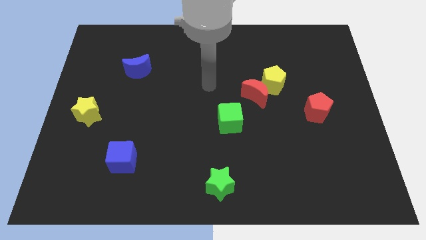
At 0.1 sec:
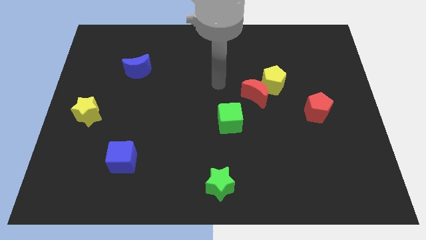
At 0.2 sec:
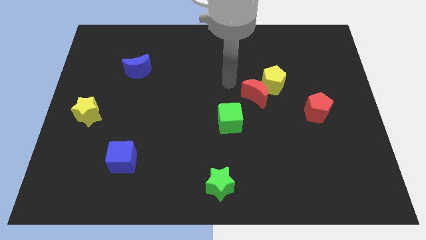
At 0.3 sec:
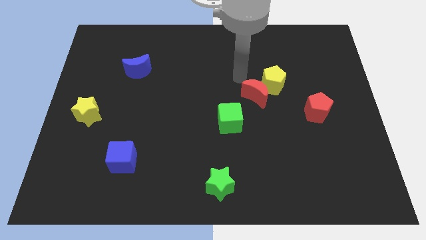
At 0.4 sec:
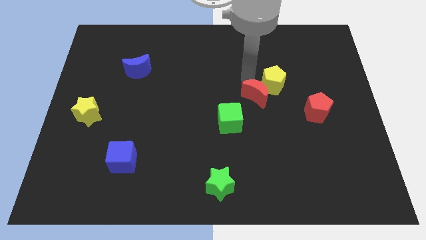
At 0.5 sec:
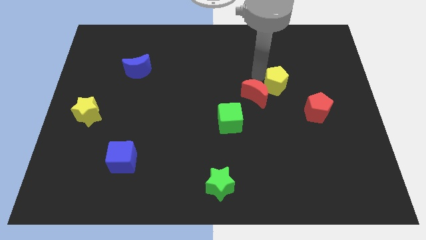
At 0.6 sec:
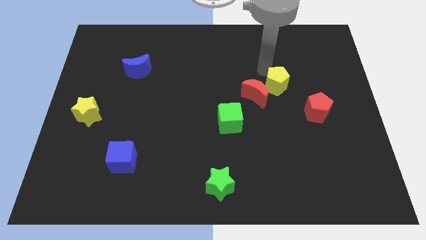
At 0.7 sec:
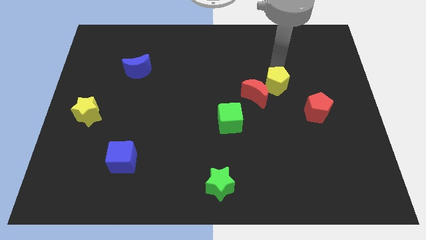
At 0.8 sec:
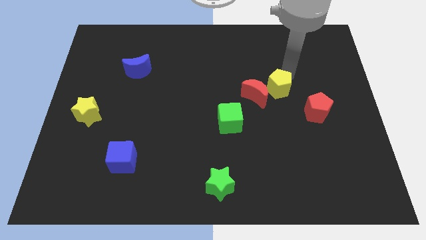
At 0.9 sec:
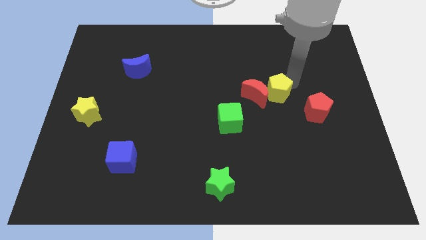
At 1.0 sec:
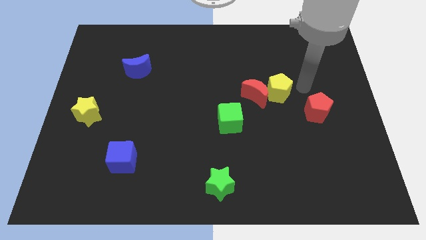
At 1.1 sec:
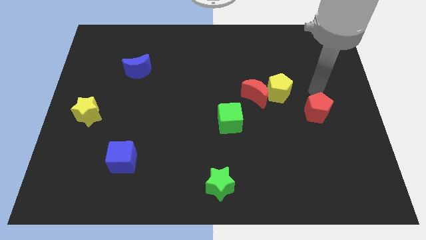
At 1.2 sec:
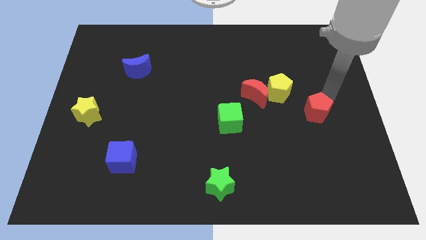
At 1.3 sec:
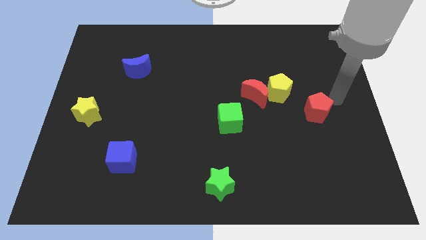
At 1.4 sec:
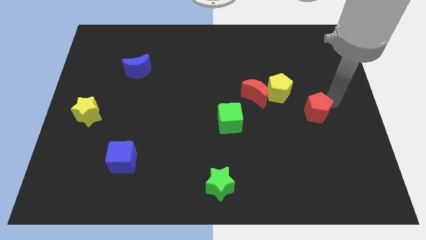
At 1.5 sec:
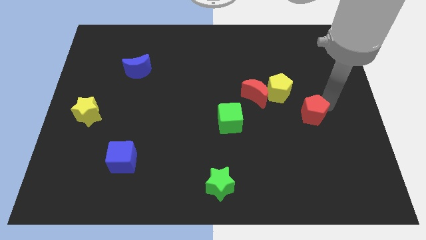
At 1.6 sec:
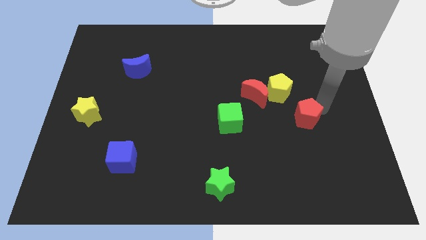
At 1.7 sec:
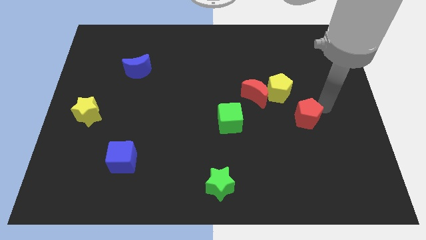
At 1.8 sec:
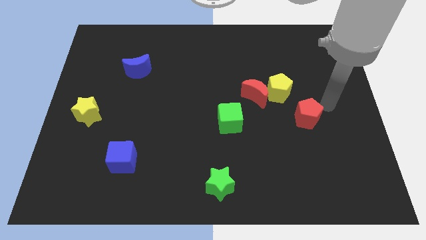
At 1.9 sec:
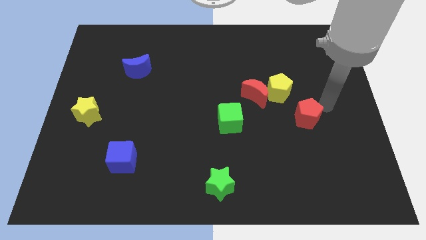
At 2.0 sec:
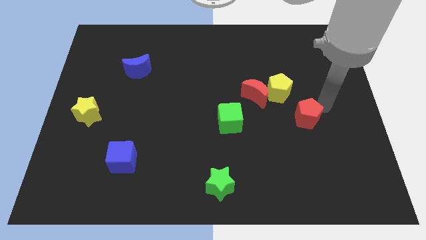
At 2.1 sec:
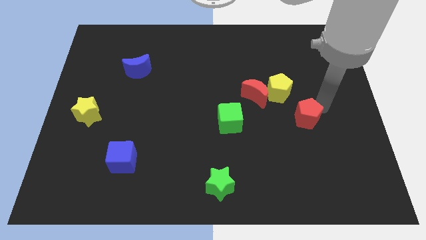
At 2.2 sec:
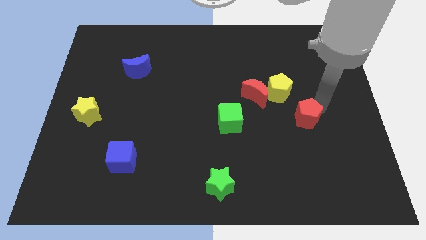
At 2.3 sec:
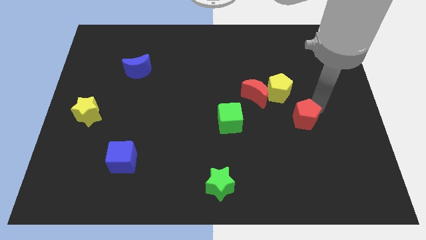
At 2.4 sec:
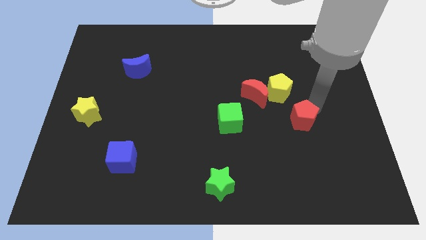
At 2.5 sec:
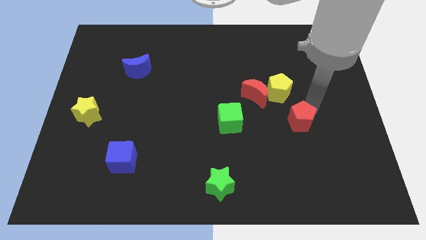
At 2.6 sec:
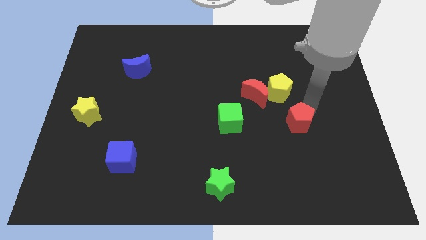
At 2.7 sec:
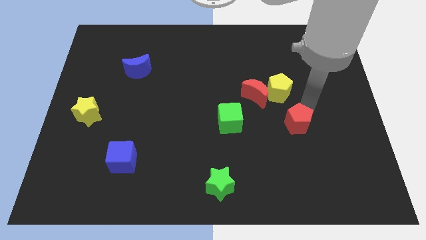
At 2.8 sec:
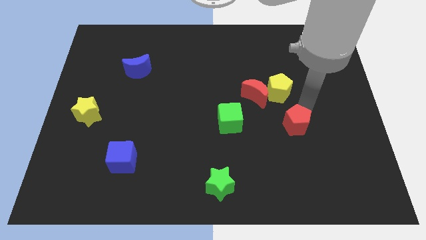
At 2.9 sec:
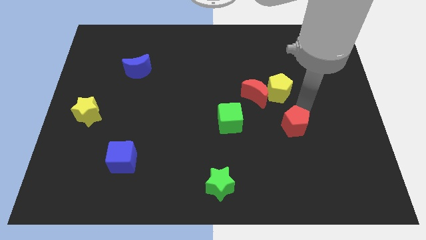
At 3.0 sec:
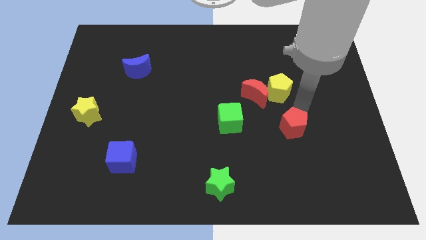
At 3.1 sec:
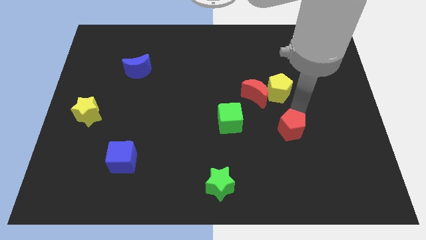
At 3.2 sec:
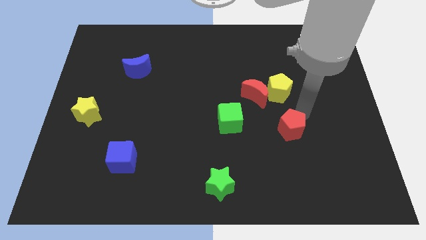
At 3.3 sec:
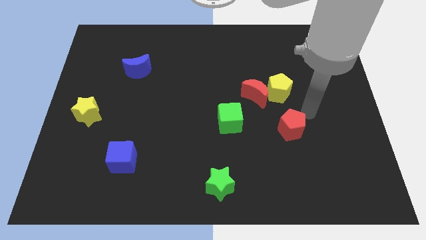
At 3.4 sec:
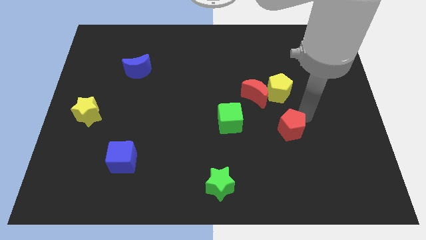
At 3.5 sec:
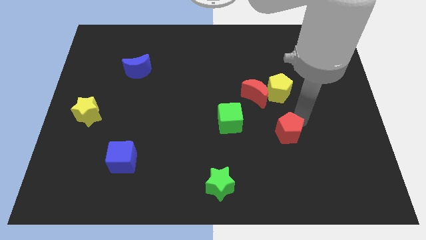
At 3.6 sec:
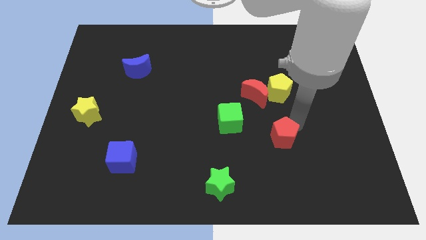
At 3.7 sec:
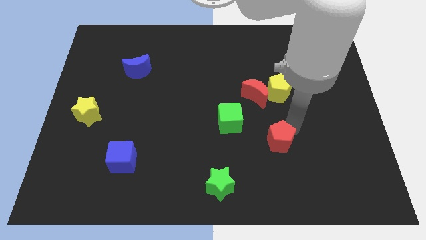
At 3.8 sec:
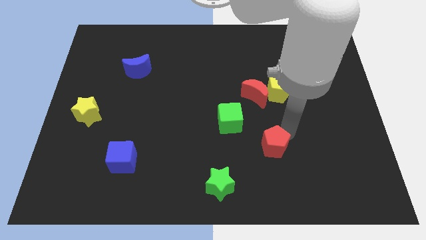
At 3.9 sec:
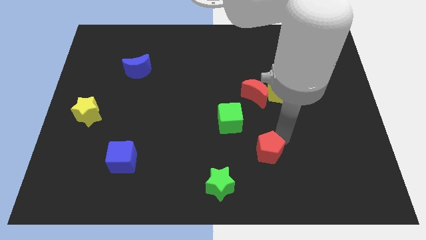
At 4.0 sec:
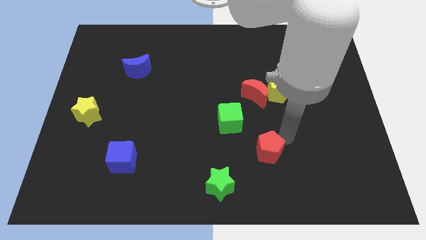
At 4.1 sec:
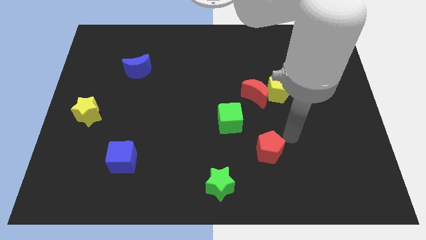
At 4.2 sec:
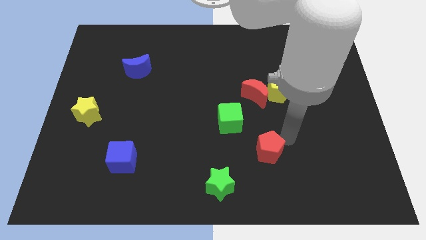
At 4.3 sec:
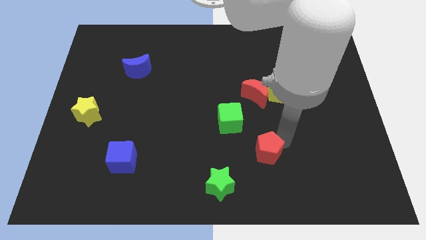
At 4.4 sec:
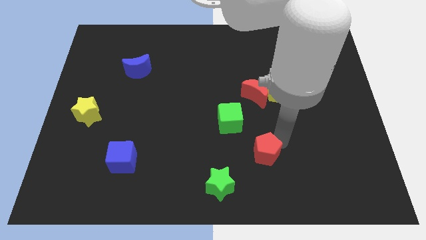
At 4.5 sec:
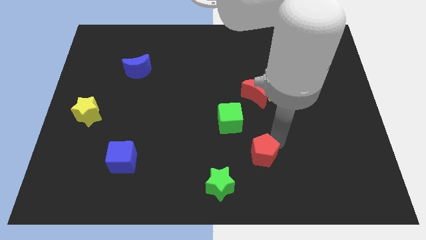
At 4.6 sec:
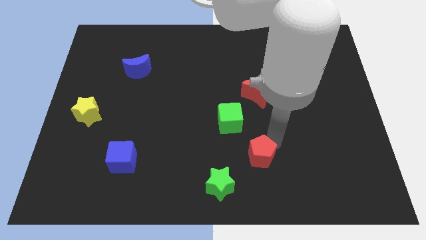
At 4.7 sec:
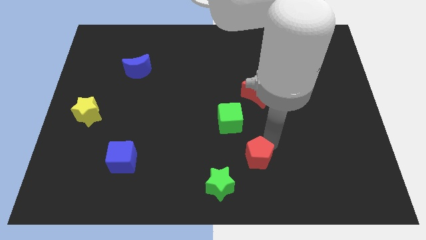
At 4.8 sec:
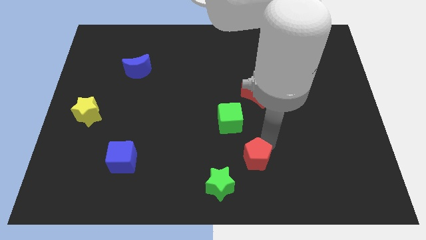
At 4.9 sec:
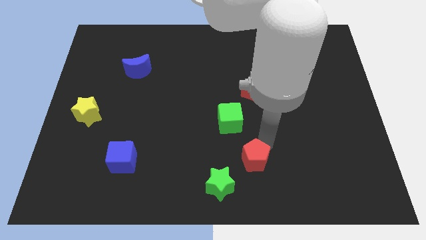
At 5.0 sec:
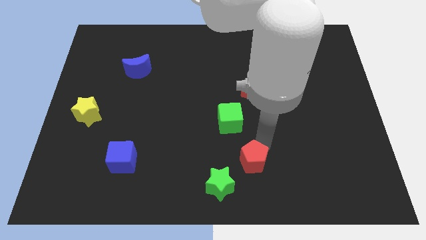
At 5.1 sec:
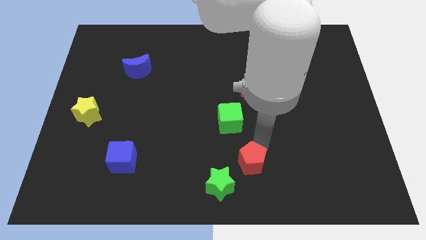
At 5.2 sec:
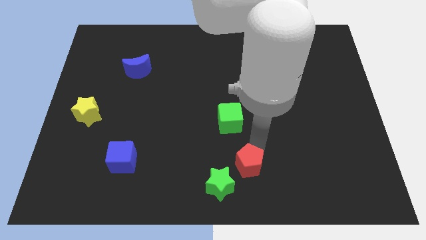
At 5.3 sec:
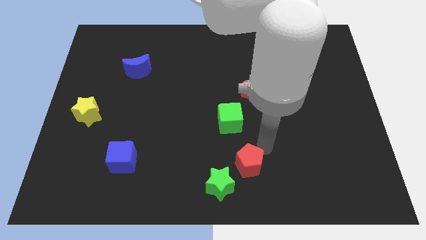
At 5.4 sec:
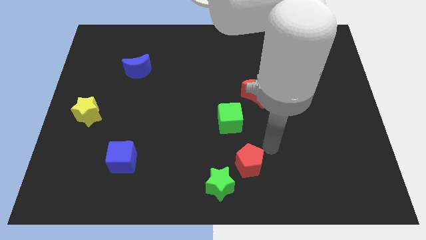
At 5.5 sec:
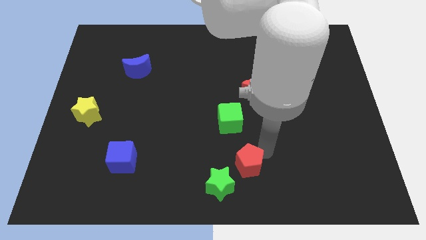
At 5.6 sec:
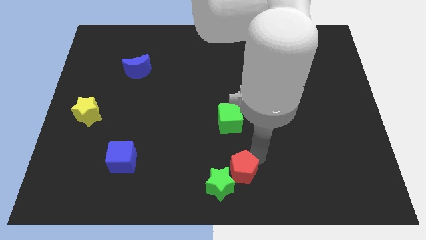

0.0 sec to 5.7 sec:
slide the red pentagon towards the green star

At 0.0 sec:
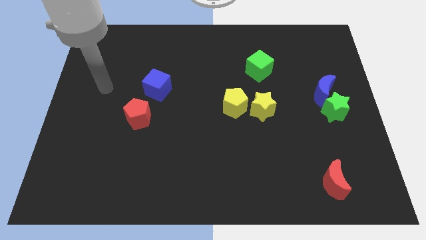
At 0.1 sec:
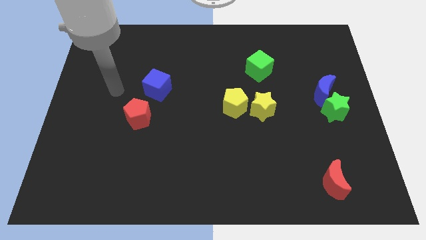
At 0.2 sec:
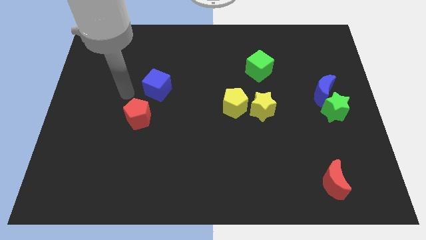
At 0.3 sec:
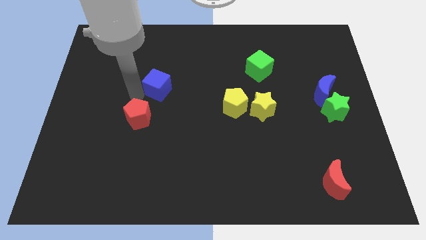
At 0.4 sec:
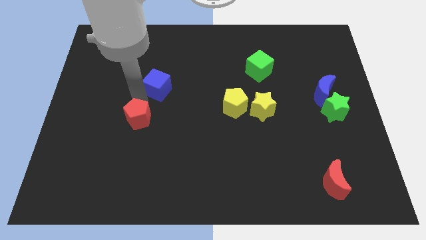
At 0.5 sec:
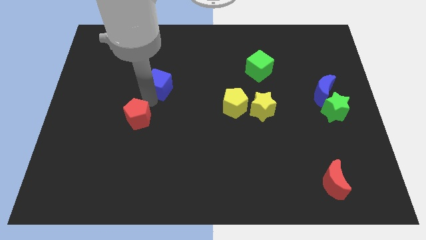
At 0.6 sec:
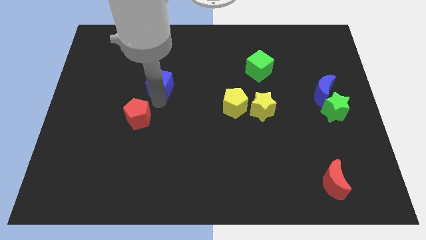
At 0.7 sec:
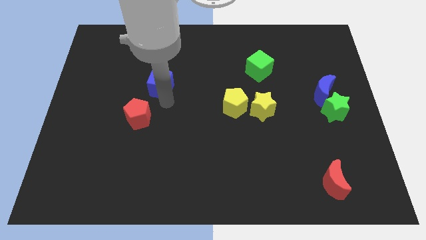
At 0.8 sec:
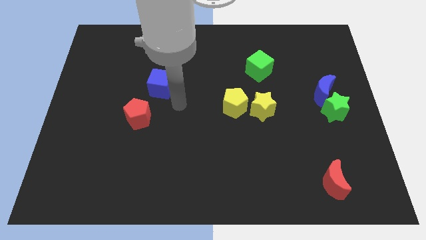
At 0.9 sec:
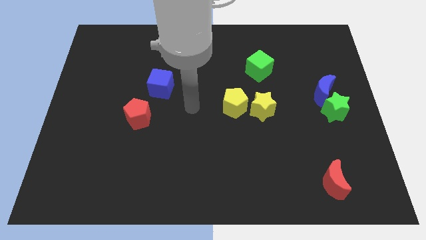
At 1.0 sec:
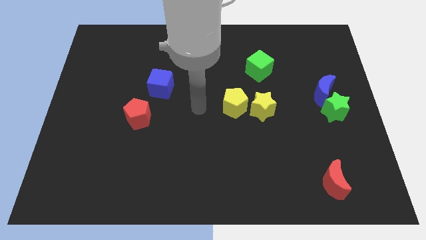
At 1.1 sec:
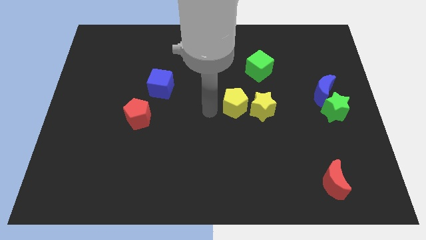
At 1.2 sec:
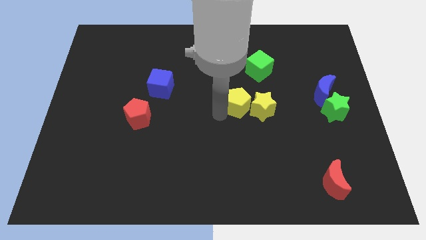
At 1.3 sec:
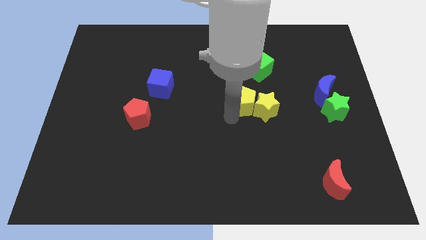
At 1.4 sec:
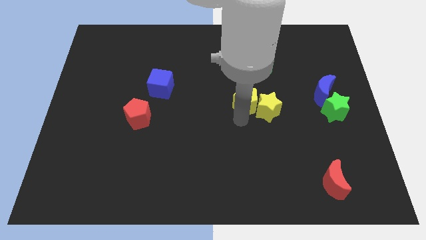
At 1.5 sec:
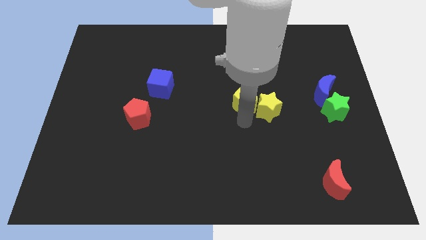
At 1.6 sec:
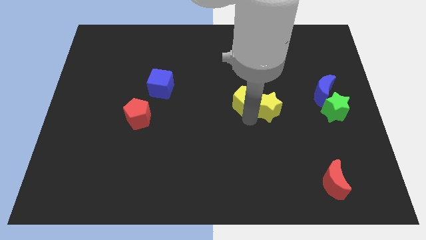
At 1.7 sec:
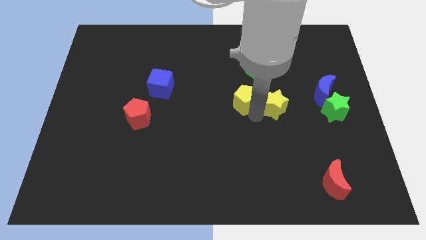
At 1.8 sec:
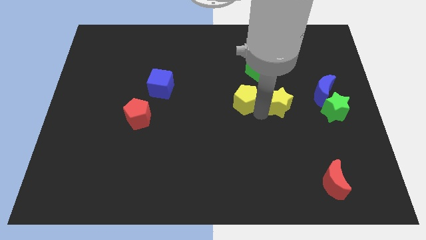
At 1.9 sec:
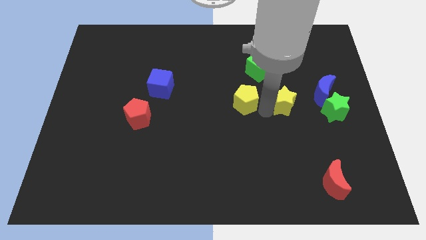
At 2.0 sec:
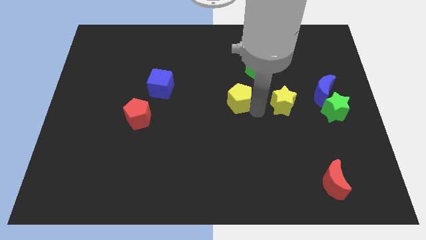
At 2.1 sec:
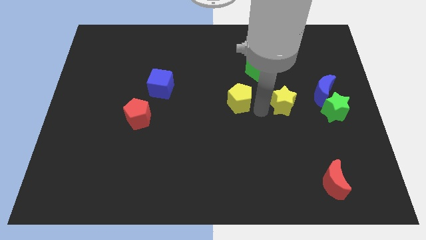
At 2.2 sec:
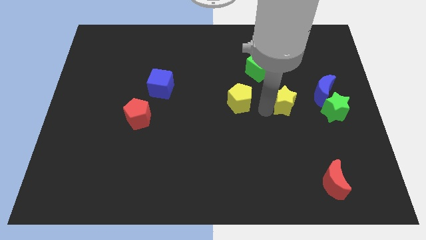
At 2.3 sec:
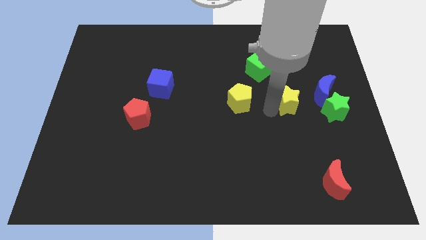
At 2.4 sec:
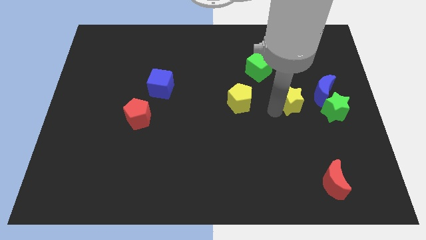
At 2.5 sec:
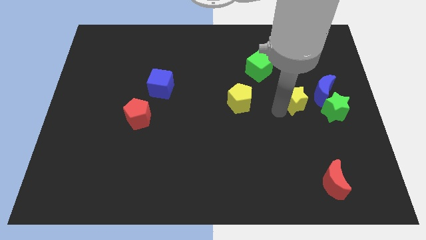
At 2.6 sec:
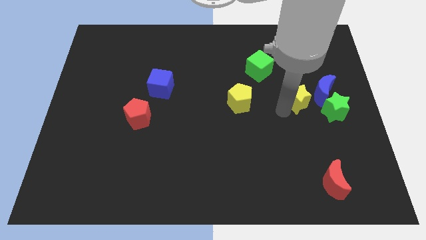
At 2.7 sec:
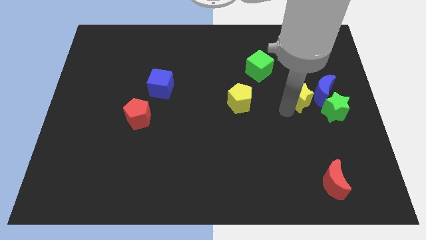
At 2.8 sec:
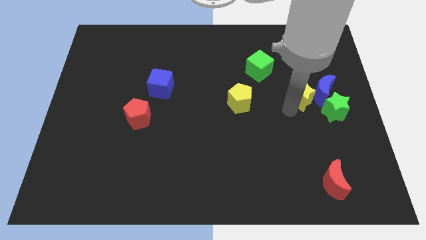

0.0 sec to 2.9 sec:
push the yellow star close to the blue moon
